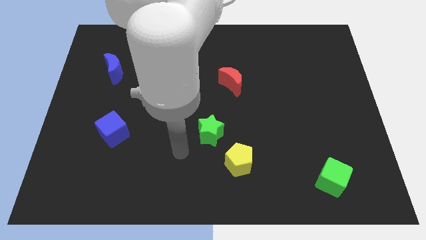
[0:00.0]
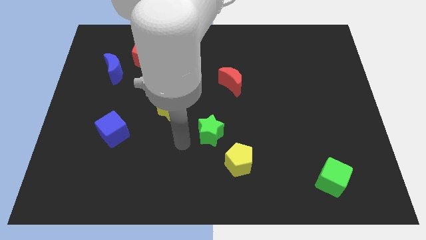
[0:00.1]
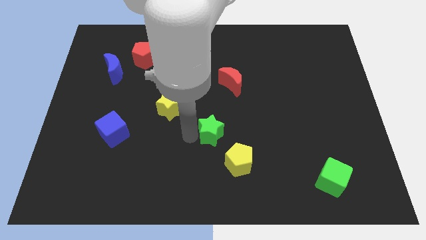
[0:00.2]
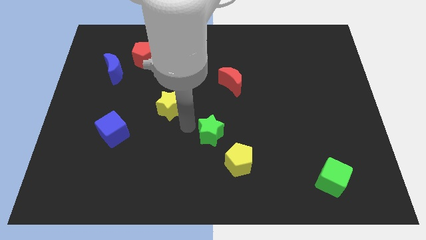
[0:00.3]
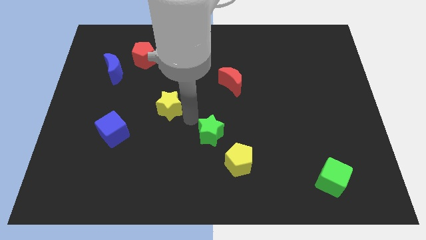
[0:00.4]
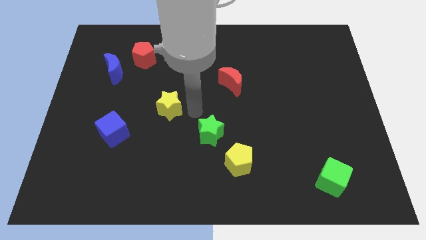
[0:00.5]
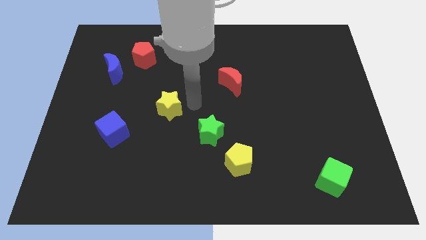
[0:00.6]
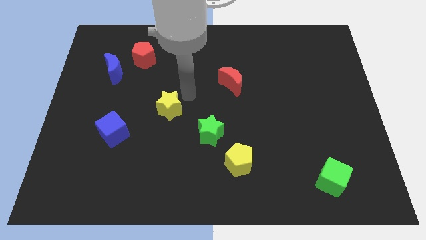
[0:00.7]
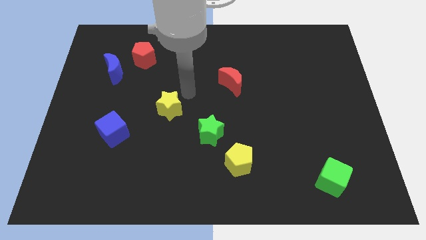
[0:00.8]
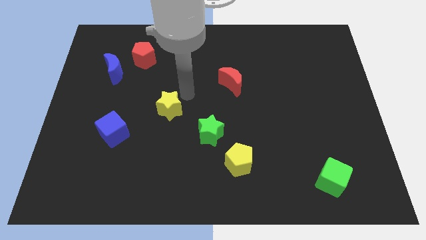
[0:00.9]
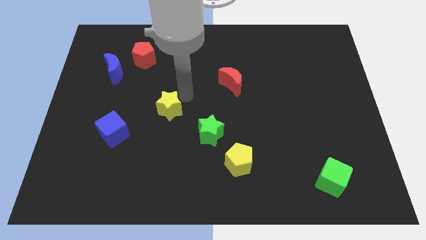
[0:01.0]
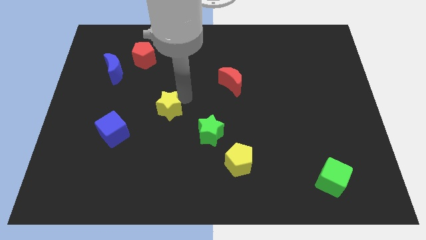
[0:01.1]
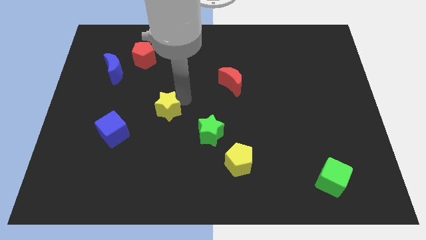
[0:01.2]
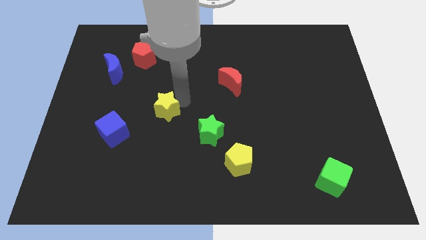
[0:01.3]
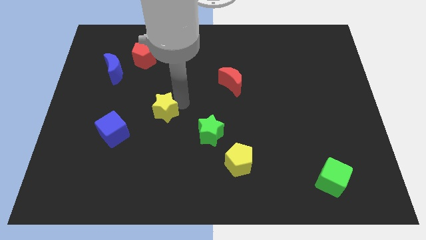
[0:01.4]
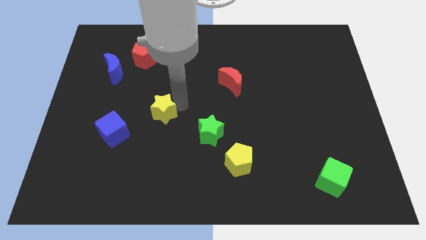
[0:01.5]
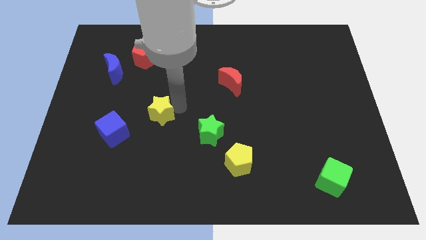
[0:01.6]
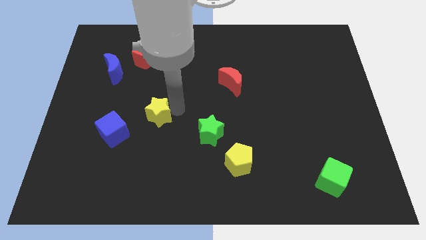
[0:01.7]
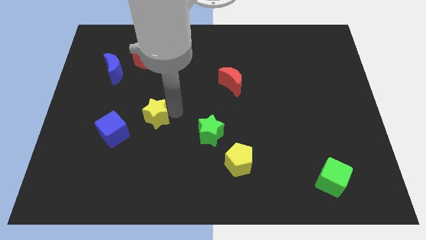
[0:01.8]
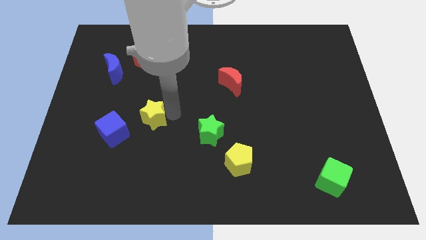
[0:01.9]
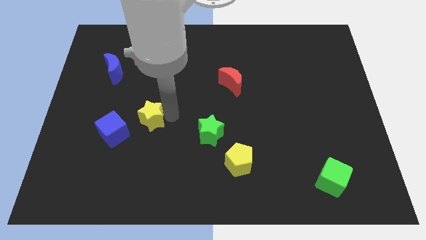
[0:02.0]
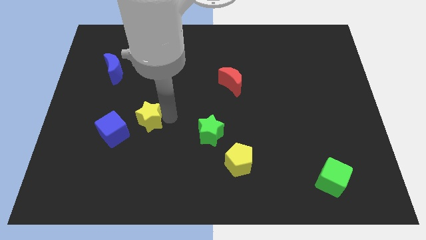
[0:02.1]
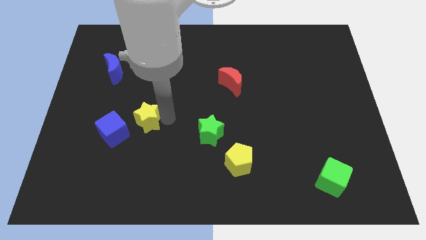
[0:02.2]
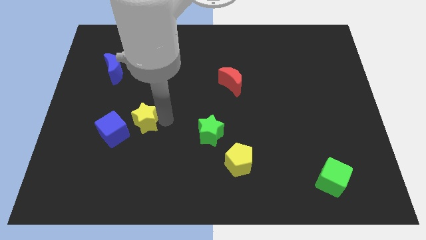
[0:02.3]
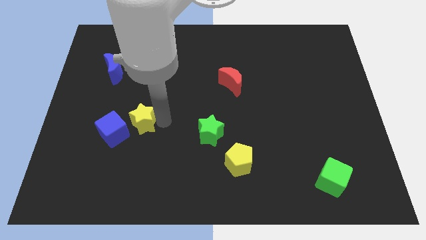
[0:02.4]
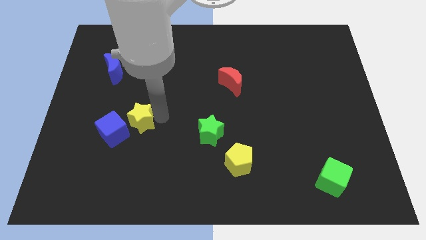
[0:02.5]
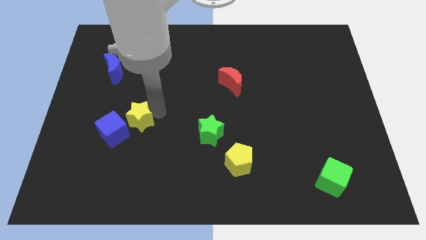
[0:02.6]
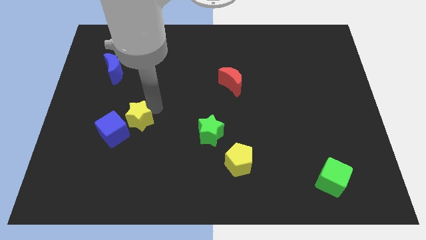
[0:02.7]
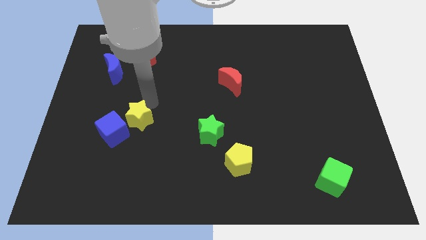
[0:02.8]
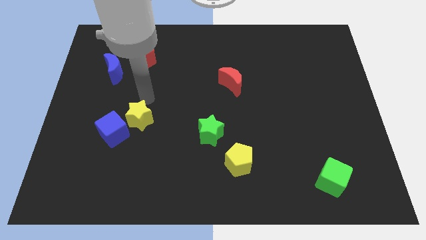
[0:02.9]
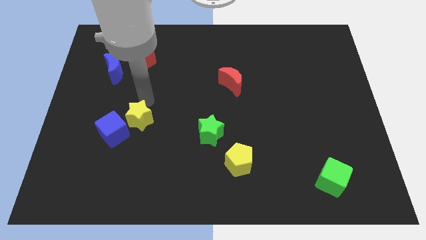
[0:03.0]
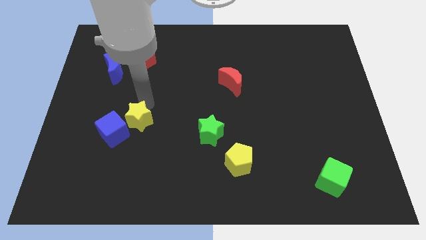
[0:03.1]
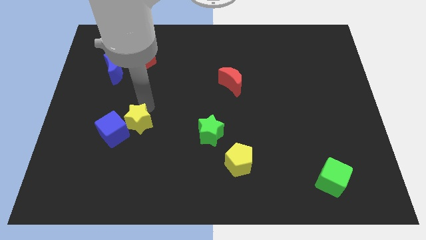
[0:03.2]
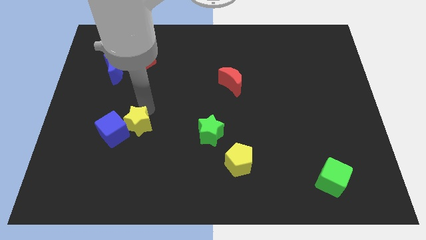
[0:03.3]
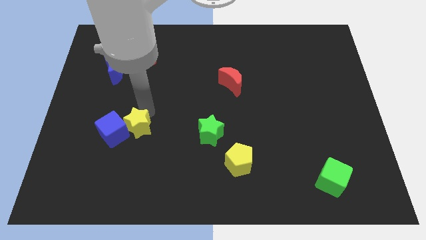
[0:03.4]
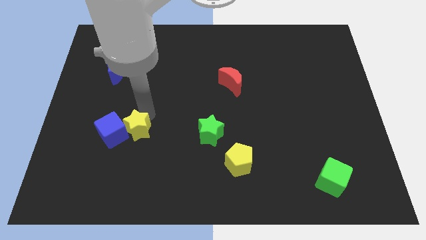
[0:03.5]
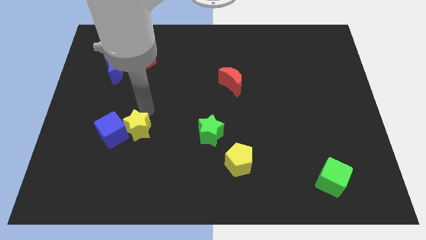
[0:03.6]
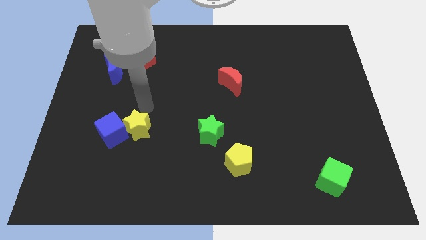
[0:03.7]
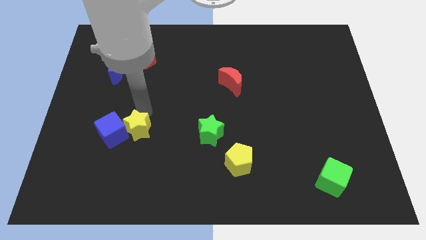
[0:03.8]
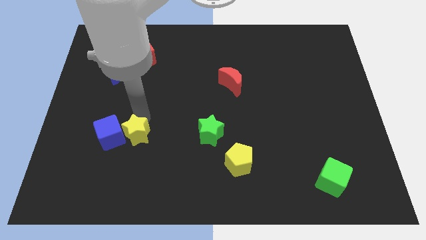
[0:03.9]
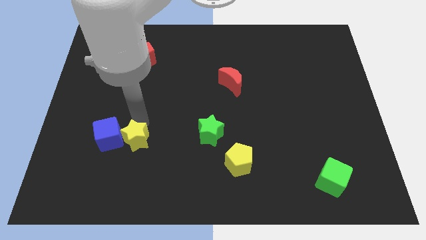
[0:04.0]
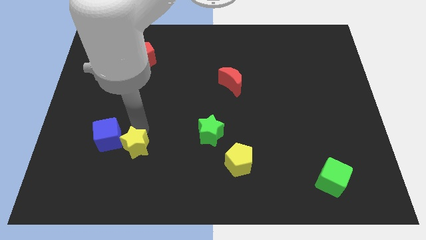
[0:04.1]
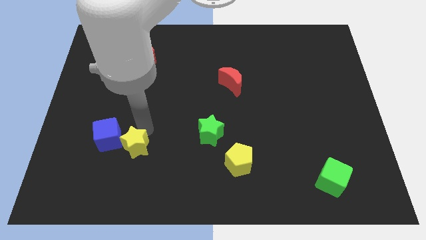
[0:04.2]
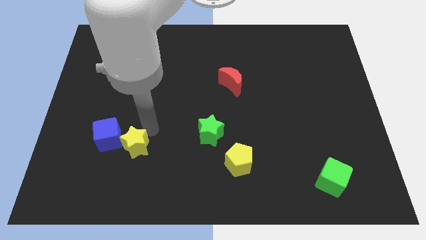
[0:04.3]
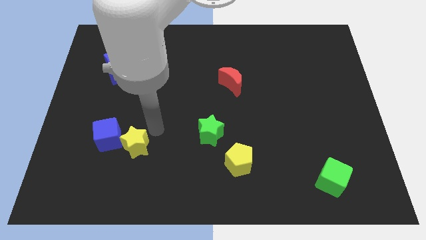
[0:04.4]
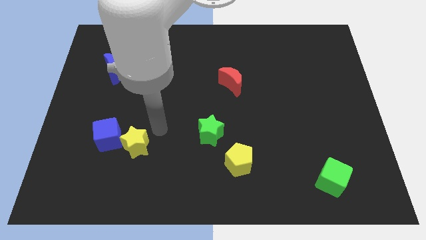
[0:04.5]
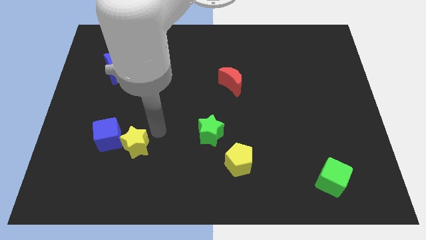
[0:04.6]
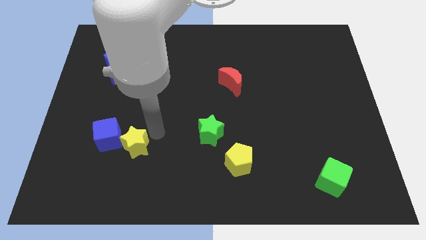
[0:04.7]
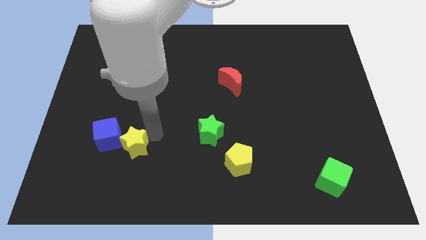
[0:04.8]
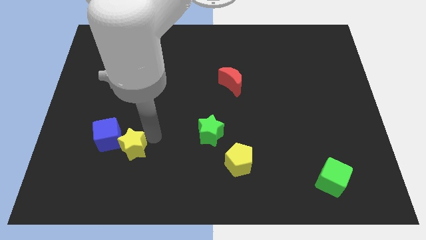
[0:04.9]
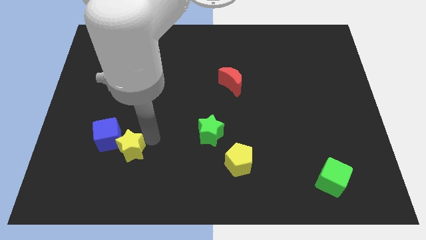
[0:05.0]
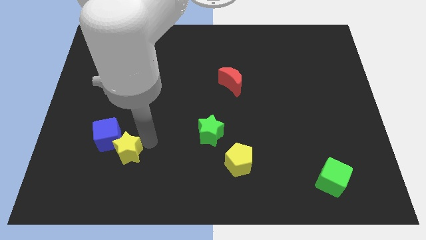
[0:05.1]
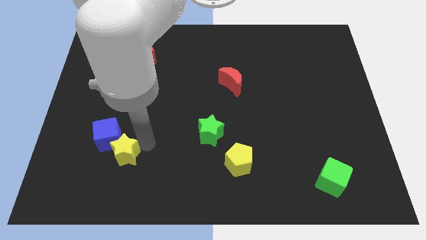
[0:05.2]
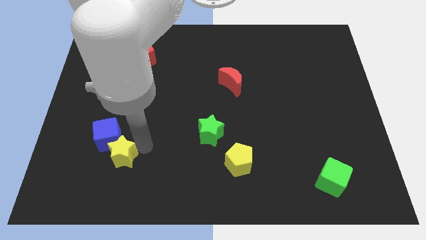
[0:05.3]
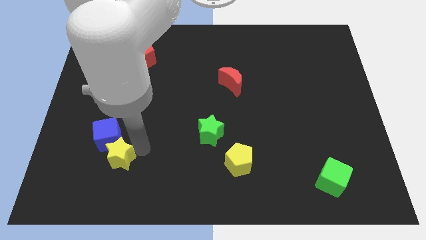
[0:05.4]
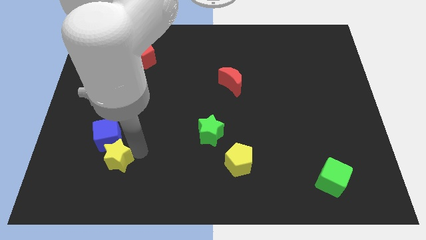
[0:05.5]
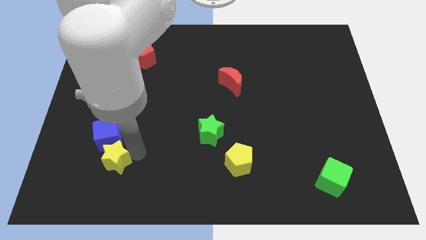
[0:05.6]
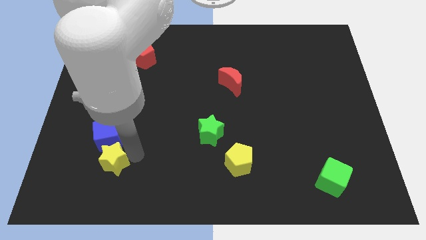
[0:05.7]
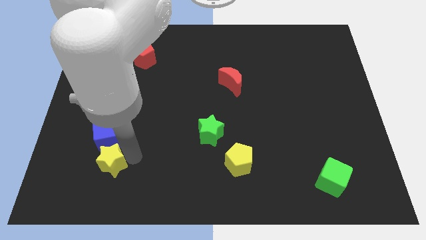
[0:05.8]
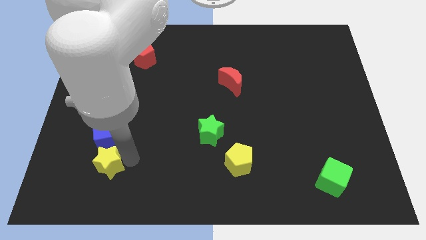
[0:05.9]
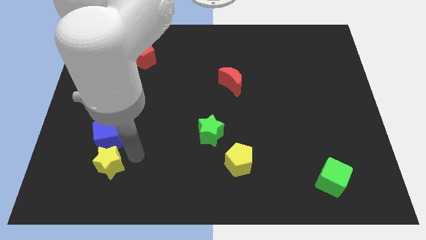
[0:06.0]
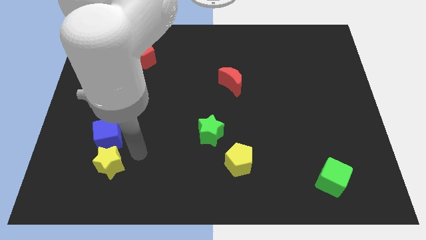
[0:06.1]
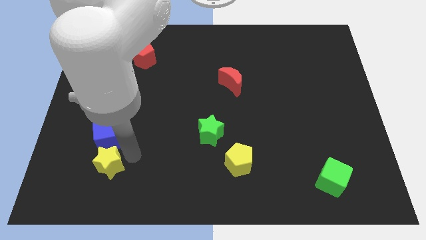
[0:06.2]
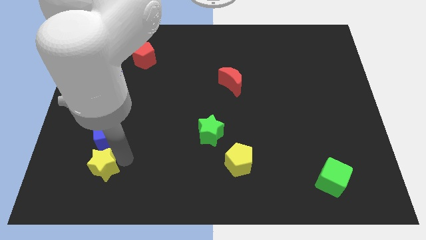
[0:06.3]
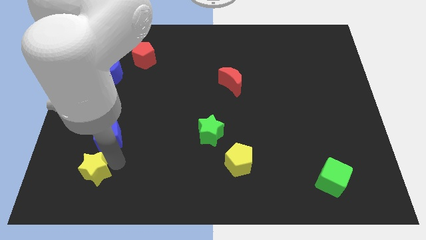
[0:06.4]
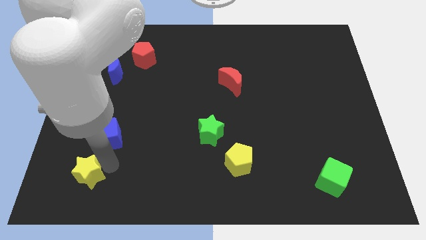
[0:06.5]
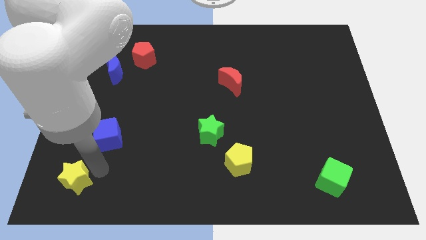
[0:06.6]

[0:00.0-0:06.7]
slide the yellow star to the bottom left corner
